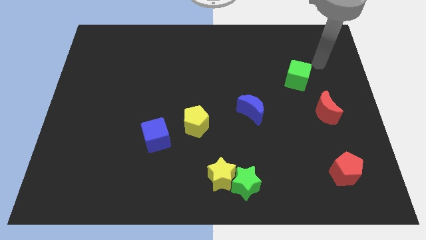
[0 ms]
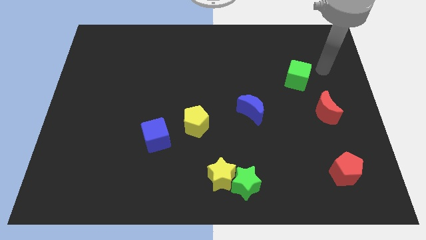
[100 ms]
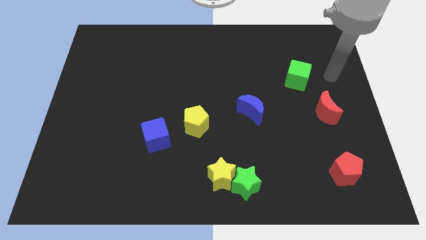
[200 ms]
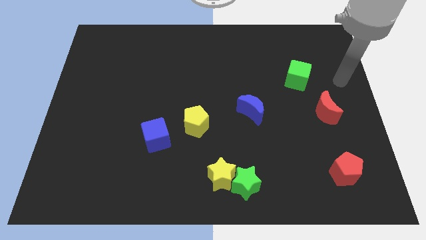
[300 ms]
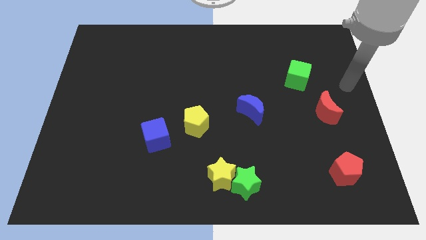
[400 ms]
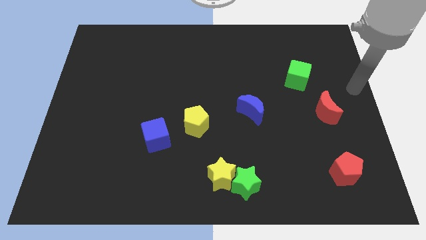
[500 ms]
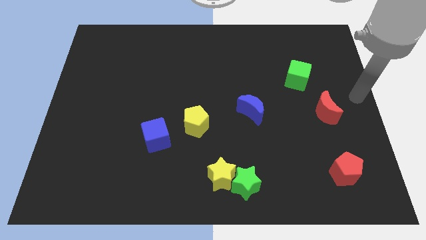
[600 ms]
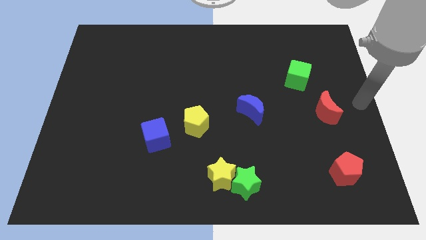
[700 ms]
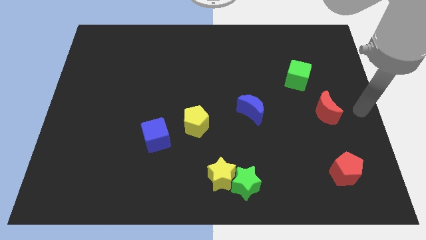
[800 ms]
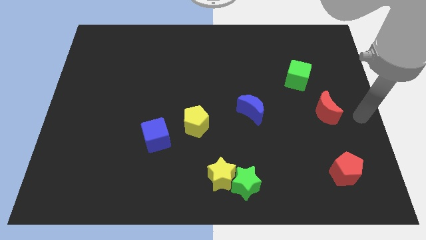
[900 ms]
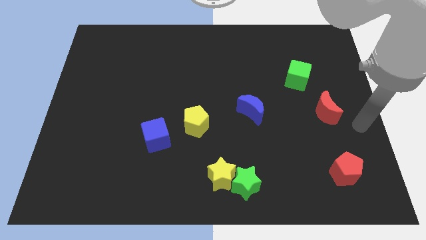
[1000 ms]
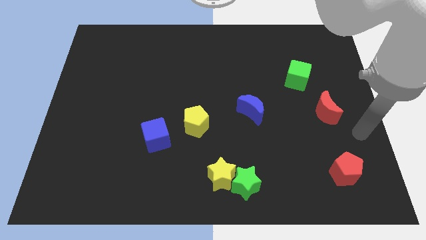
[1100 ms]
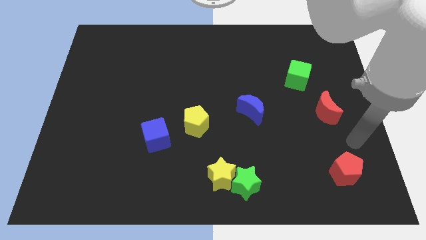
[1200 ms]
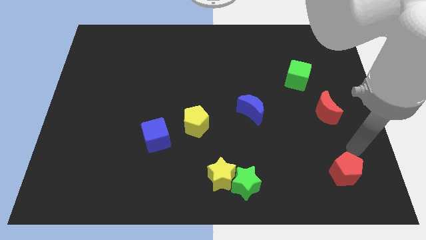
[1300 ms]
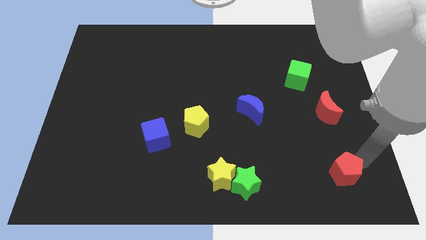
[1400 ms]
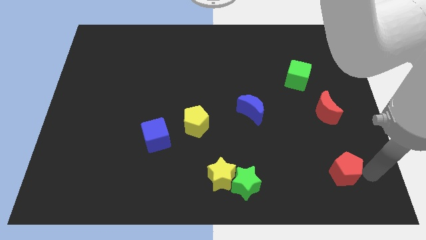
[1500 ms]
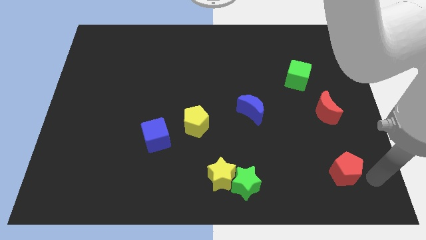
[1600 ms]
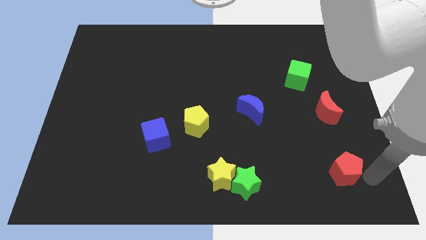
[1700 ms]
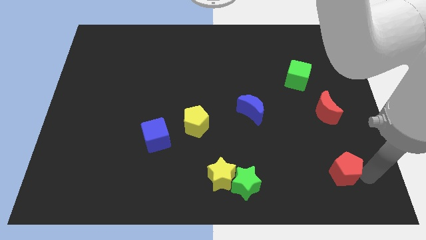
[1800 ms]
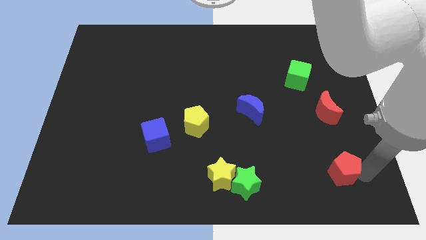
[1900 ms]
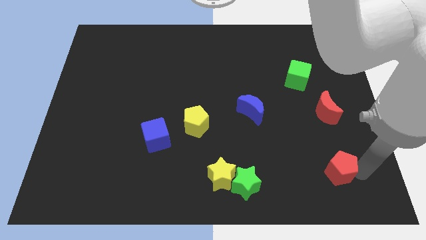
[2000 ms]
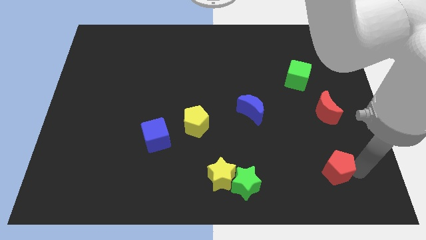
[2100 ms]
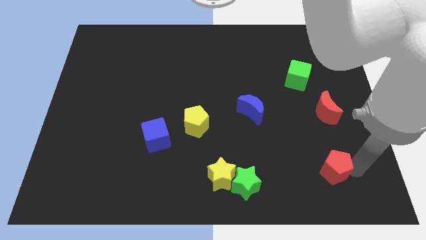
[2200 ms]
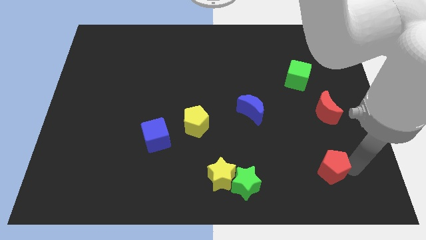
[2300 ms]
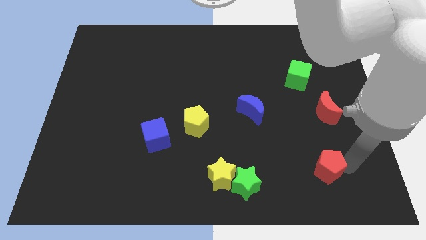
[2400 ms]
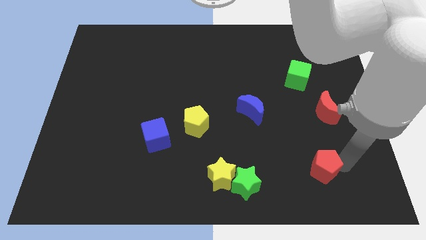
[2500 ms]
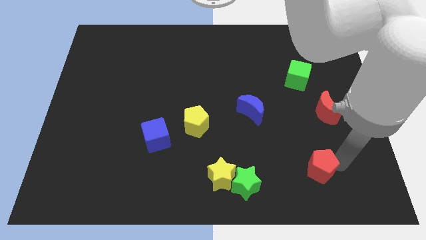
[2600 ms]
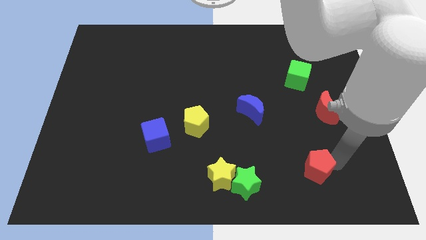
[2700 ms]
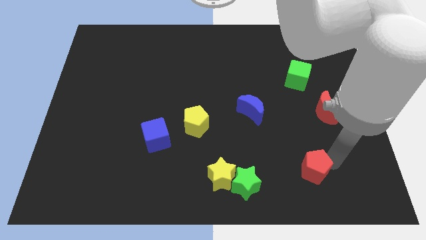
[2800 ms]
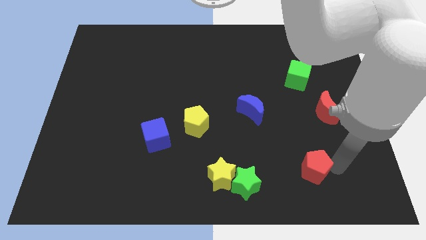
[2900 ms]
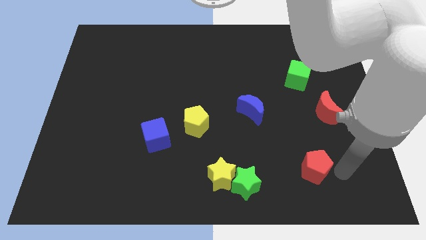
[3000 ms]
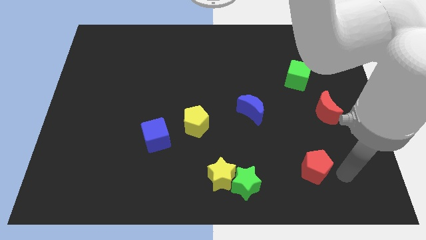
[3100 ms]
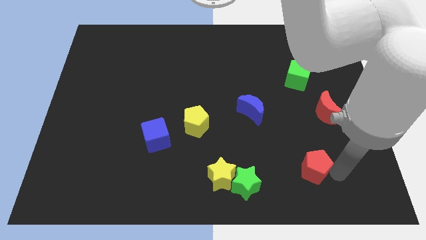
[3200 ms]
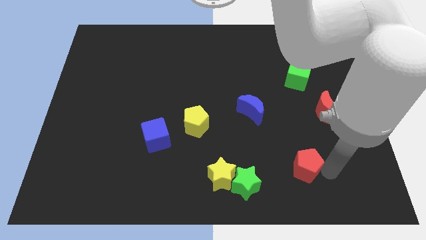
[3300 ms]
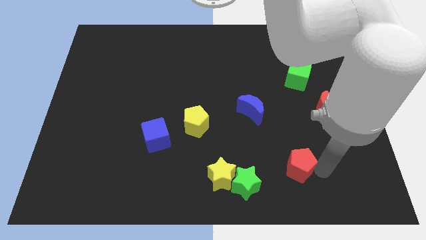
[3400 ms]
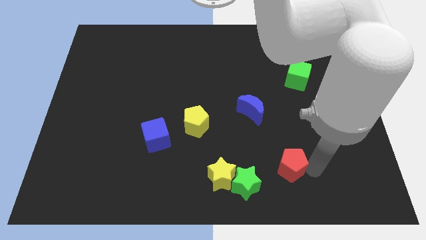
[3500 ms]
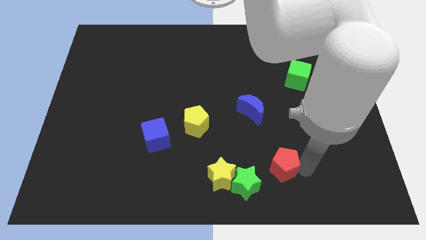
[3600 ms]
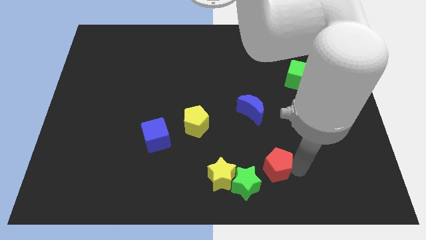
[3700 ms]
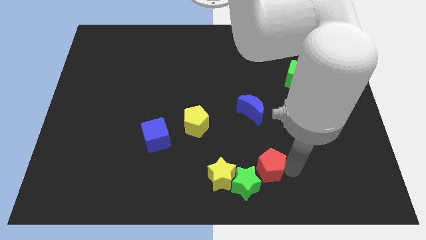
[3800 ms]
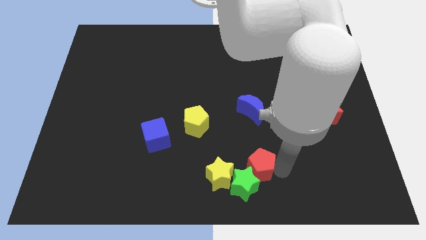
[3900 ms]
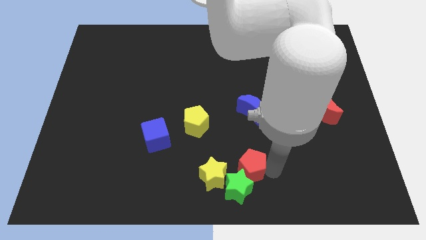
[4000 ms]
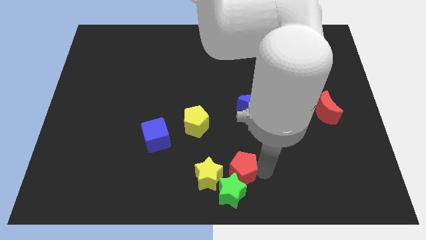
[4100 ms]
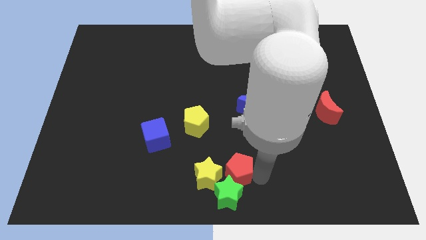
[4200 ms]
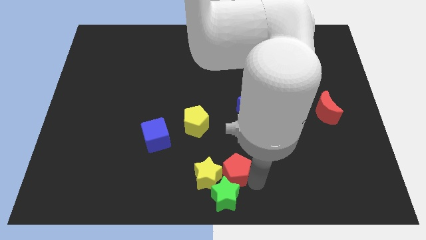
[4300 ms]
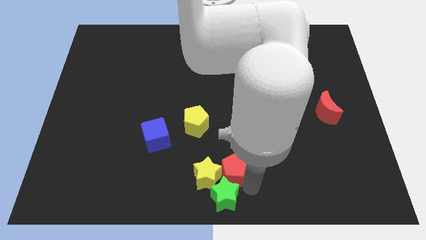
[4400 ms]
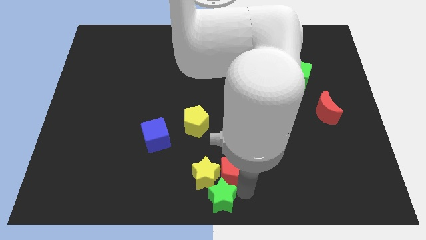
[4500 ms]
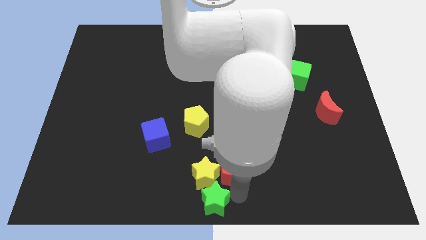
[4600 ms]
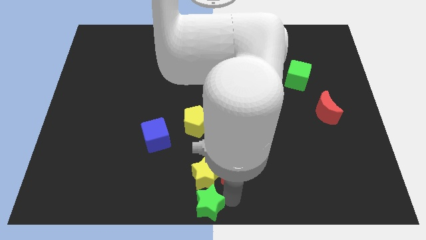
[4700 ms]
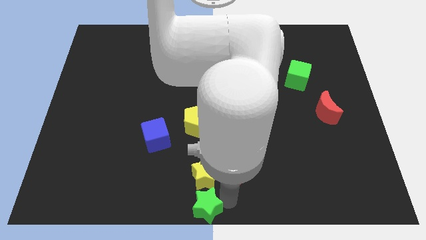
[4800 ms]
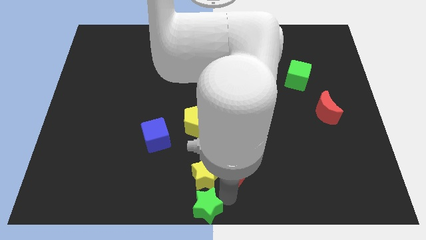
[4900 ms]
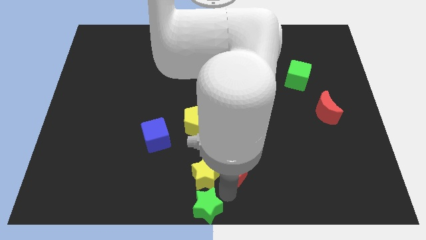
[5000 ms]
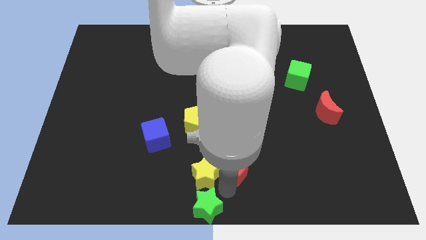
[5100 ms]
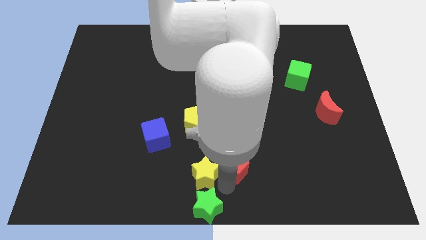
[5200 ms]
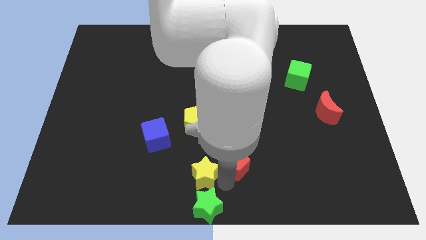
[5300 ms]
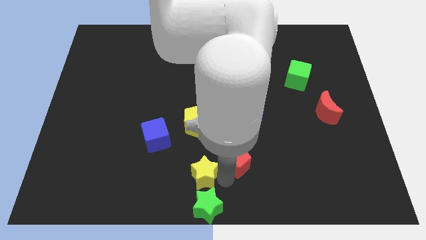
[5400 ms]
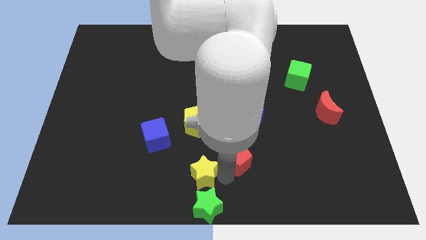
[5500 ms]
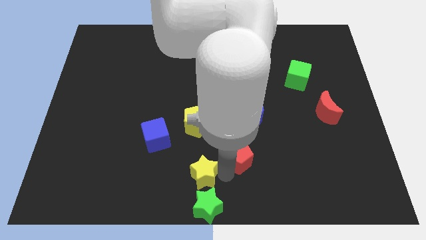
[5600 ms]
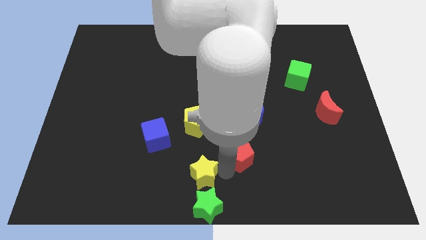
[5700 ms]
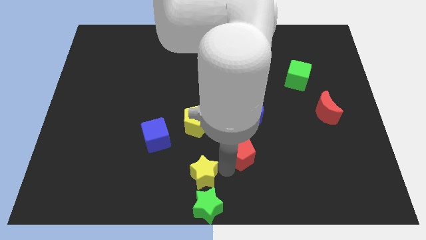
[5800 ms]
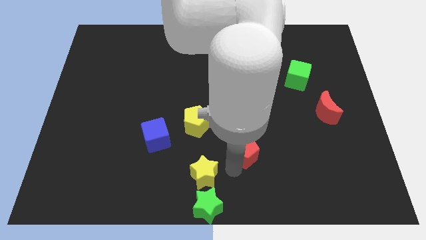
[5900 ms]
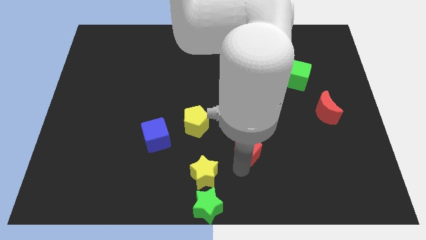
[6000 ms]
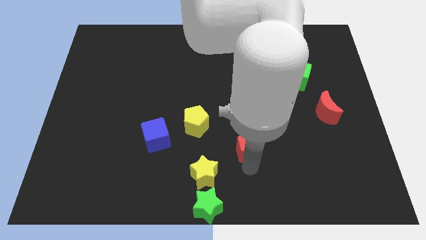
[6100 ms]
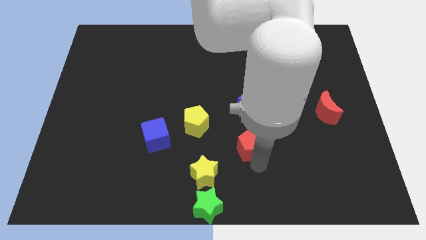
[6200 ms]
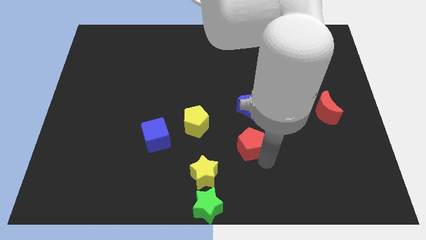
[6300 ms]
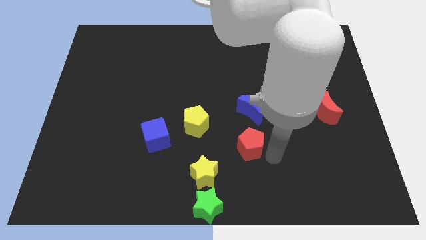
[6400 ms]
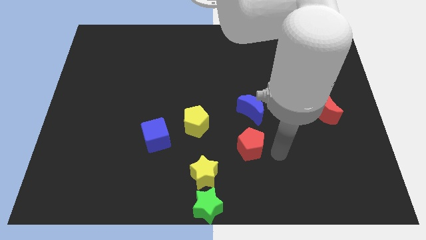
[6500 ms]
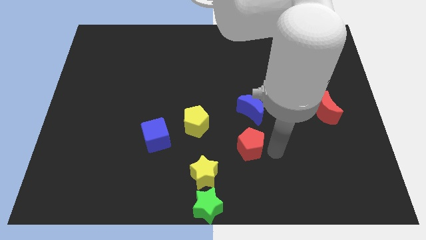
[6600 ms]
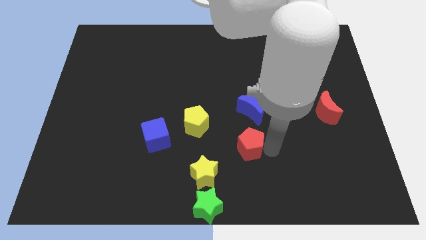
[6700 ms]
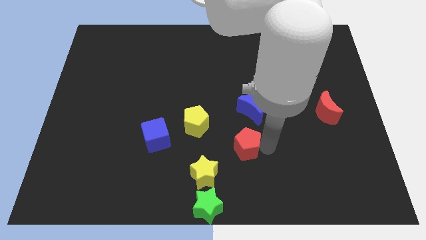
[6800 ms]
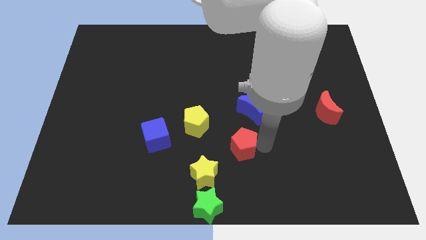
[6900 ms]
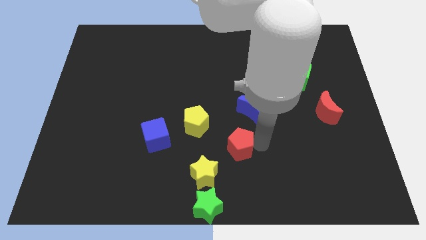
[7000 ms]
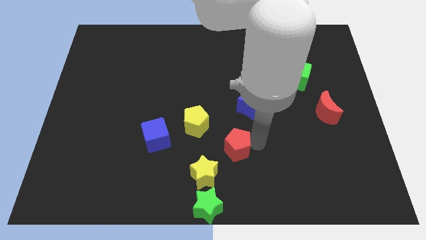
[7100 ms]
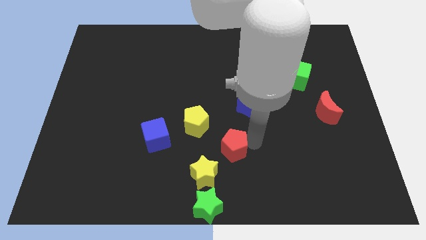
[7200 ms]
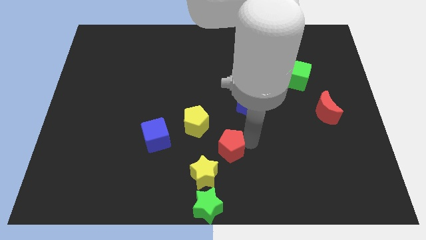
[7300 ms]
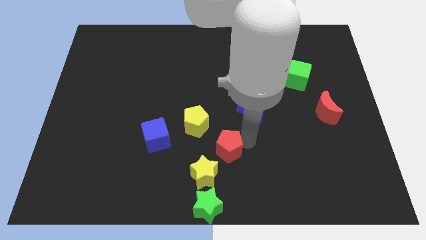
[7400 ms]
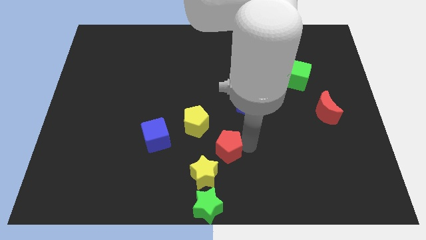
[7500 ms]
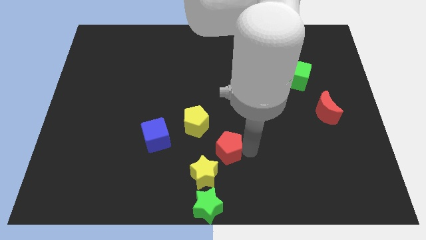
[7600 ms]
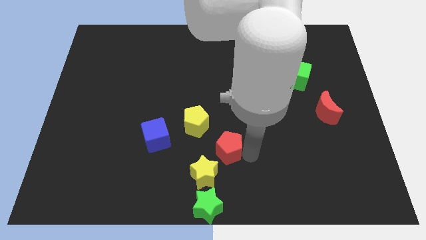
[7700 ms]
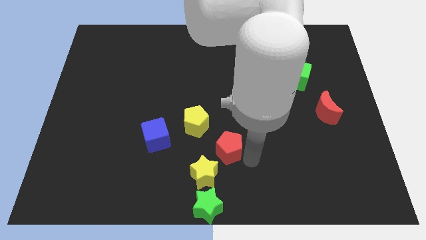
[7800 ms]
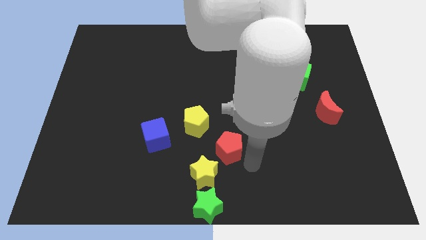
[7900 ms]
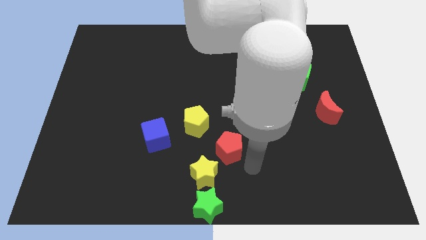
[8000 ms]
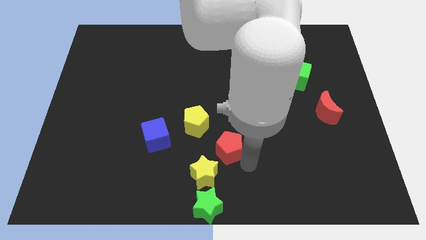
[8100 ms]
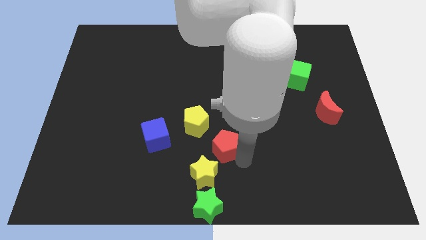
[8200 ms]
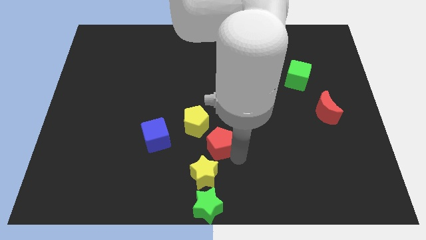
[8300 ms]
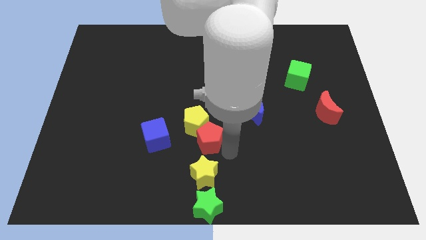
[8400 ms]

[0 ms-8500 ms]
move the red pentagon to the yellow pentagon
